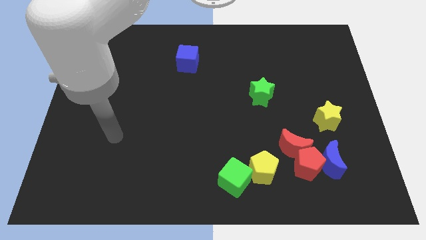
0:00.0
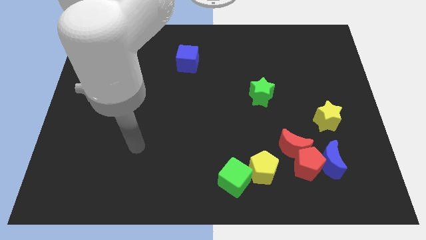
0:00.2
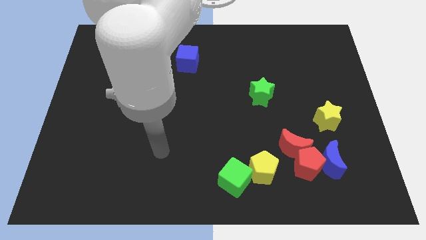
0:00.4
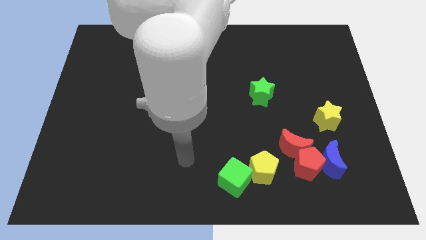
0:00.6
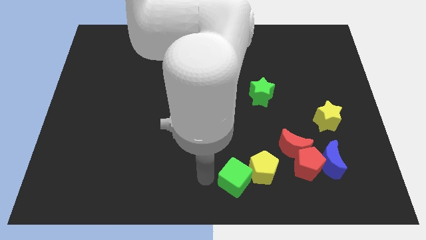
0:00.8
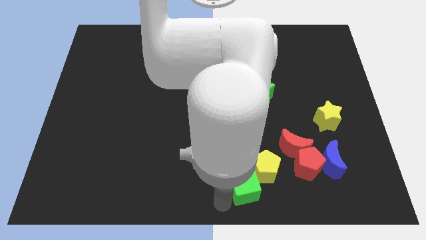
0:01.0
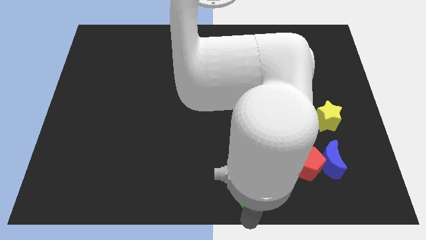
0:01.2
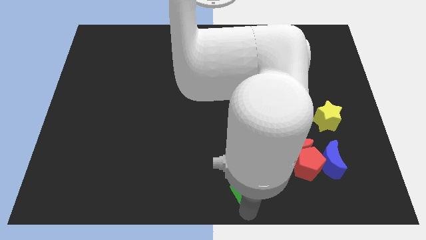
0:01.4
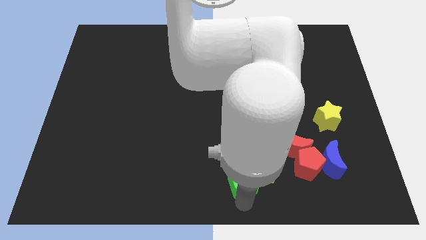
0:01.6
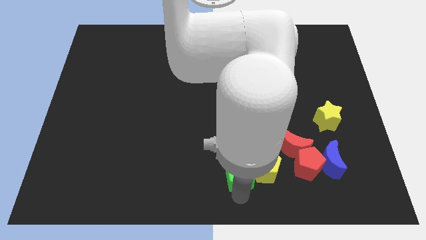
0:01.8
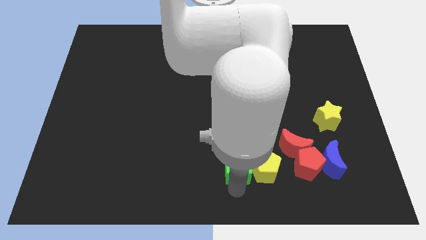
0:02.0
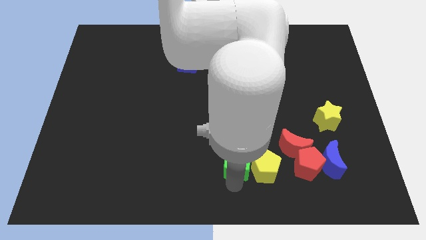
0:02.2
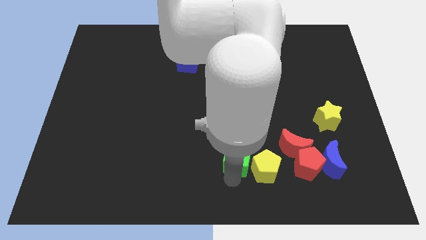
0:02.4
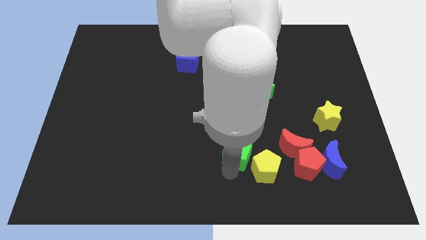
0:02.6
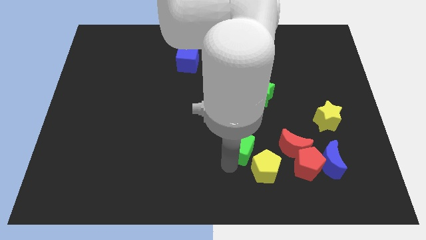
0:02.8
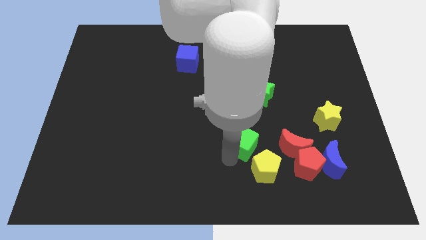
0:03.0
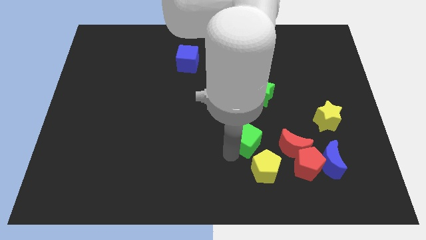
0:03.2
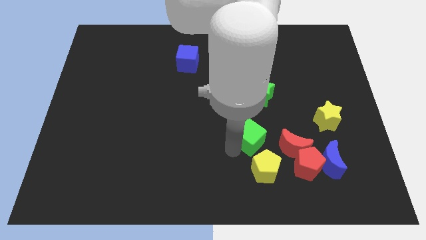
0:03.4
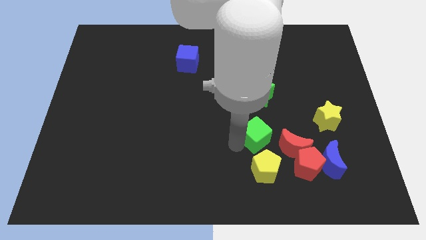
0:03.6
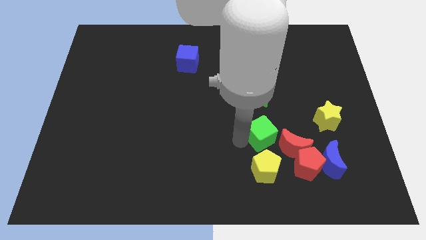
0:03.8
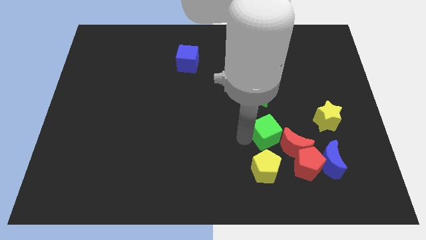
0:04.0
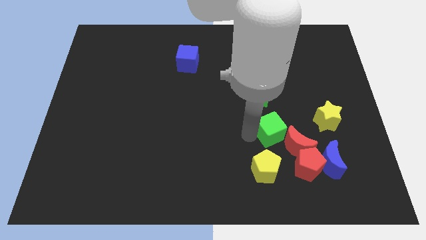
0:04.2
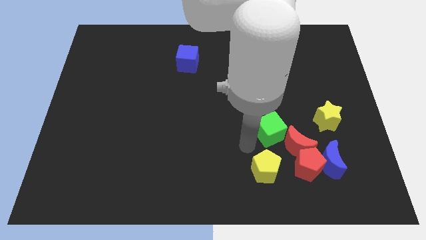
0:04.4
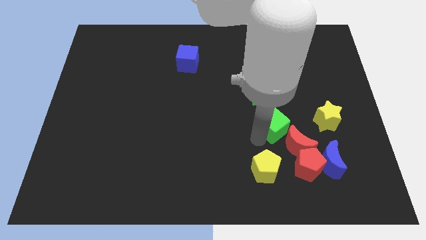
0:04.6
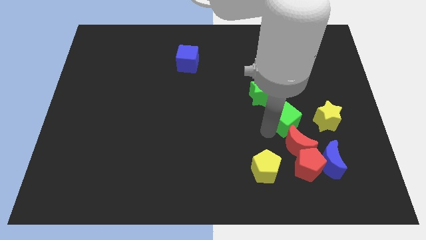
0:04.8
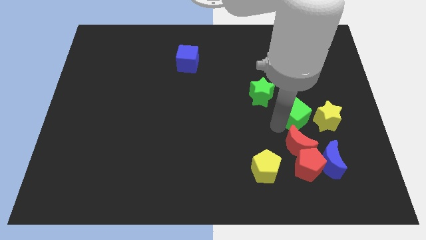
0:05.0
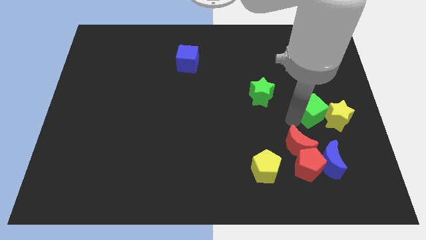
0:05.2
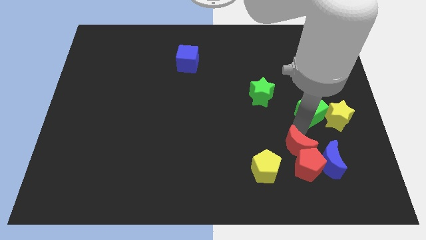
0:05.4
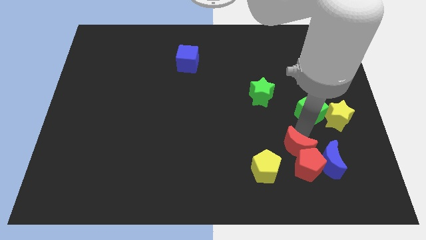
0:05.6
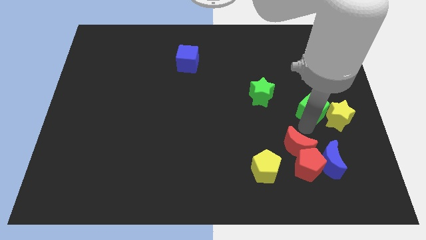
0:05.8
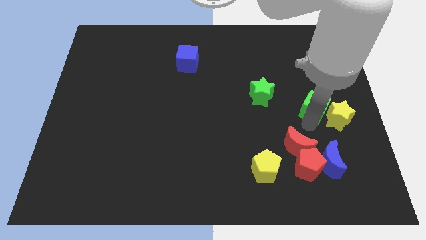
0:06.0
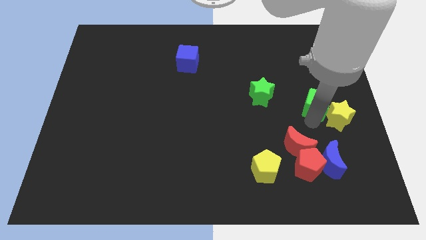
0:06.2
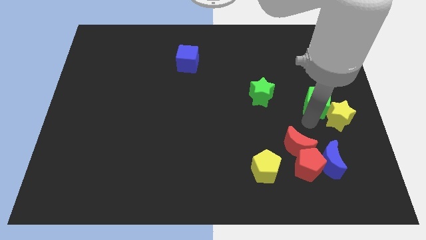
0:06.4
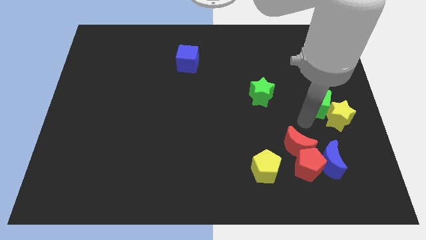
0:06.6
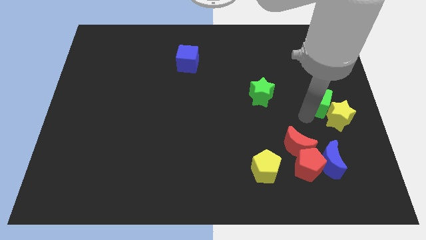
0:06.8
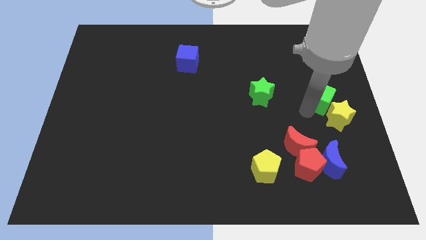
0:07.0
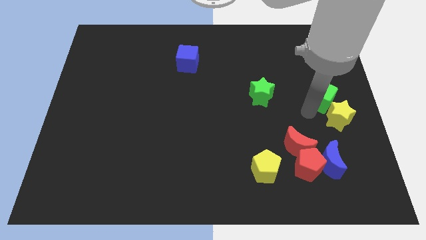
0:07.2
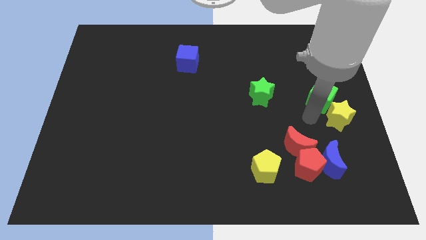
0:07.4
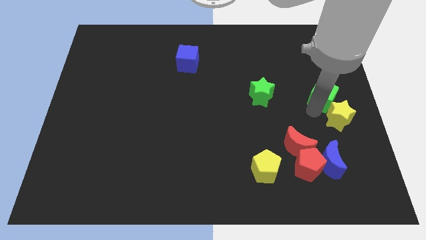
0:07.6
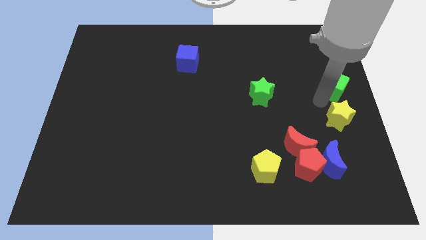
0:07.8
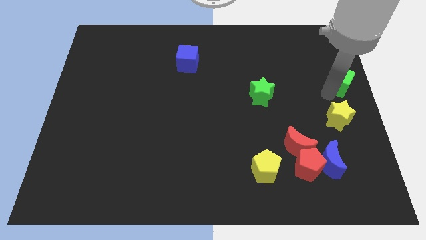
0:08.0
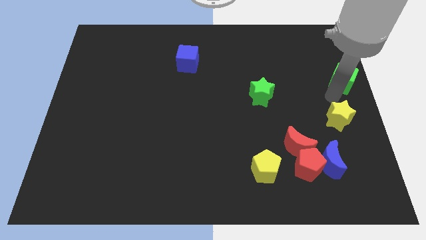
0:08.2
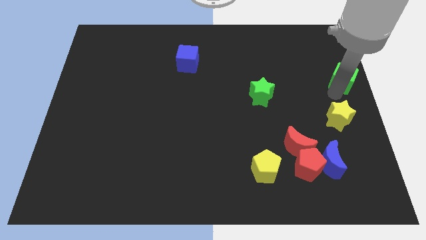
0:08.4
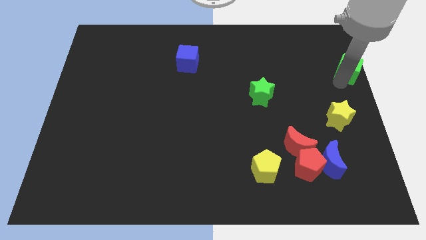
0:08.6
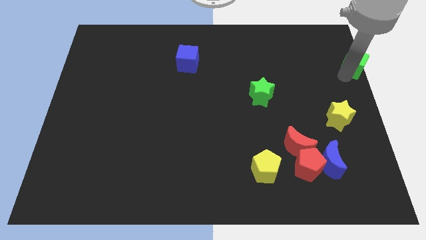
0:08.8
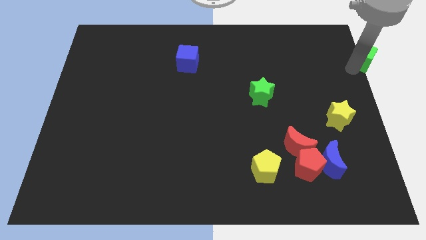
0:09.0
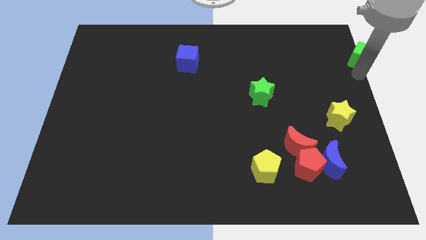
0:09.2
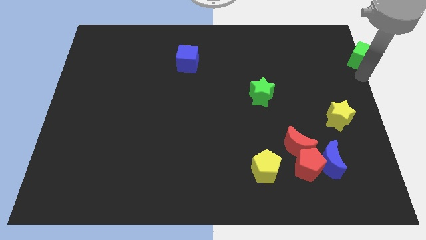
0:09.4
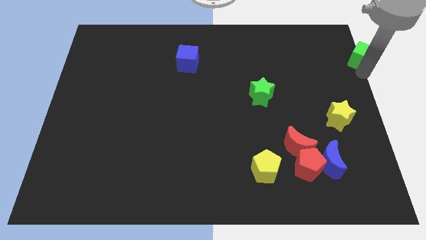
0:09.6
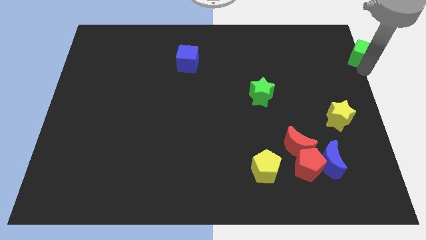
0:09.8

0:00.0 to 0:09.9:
push the green cube to the top right of the board

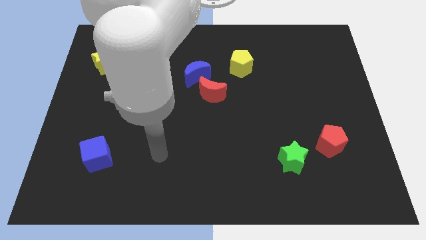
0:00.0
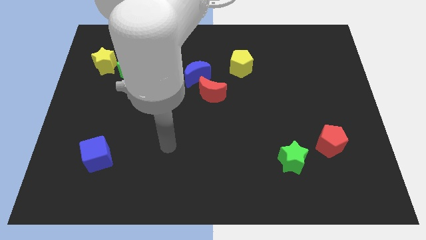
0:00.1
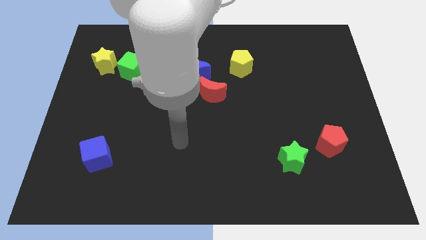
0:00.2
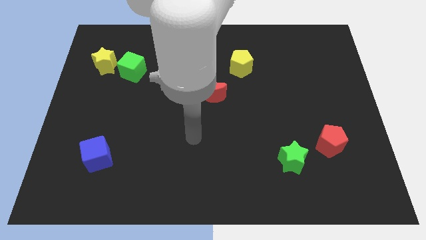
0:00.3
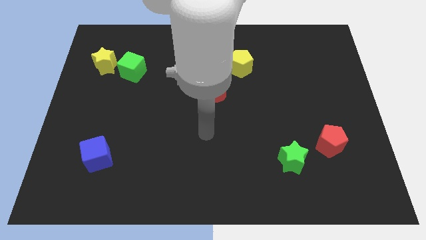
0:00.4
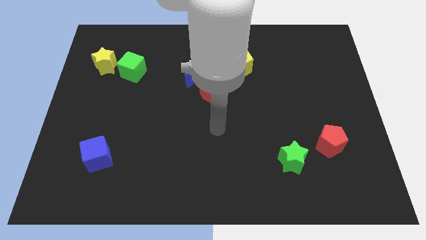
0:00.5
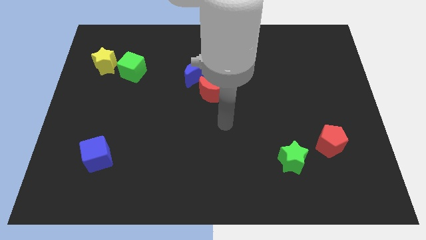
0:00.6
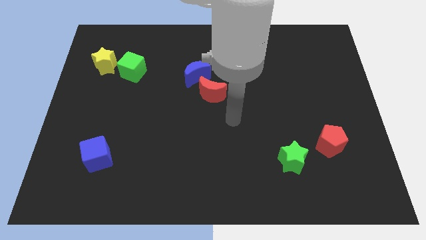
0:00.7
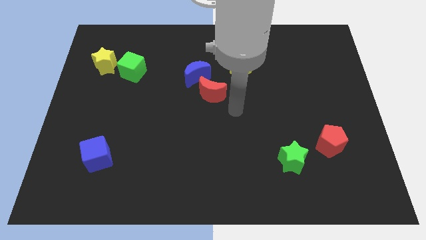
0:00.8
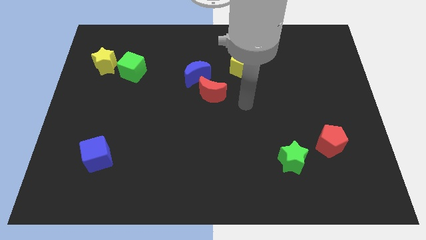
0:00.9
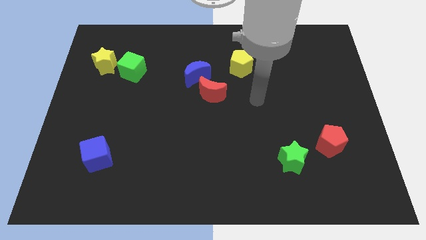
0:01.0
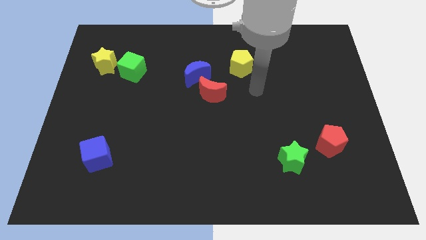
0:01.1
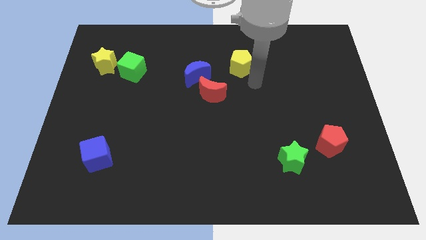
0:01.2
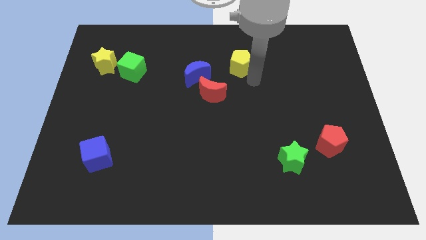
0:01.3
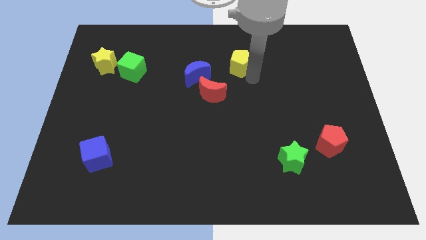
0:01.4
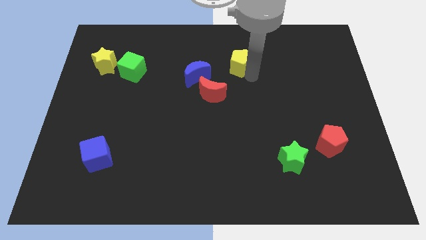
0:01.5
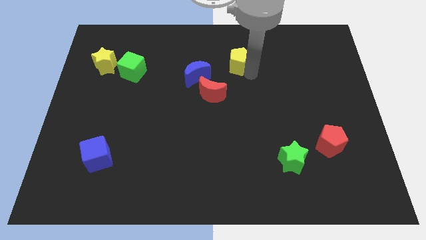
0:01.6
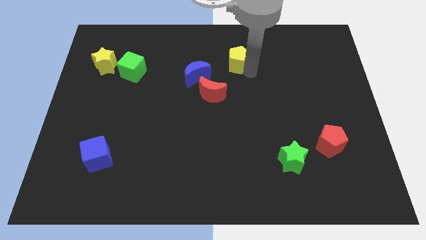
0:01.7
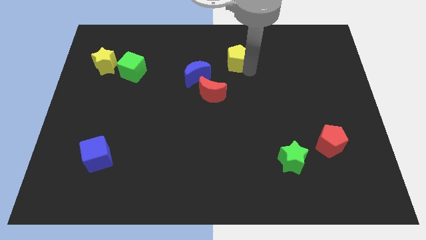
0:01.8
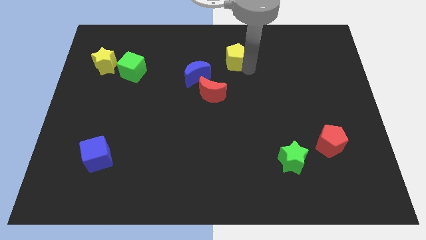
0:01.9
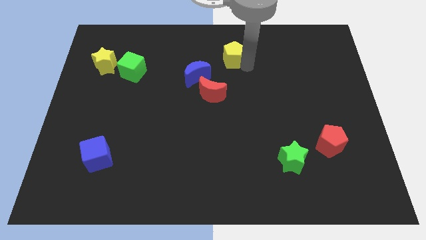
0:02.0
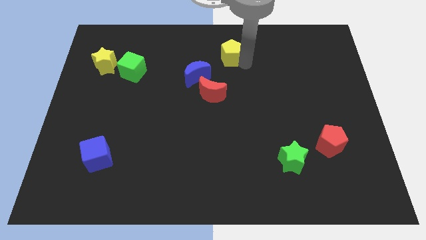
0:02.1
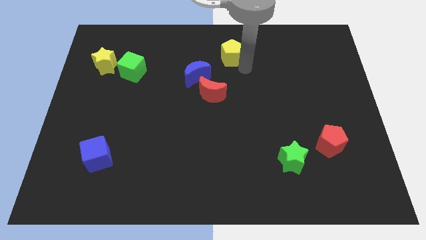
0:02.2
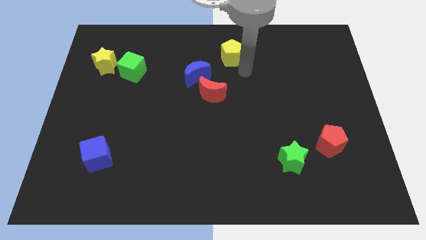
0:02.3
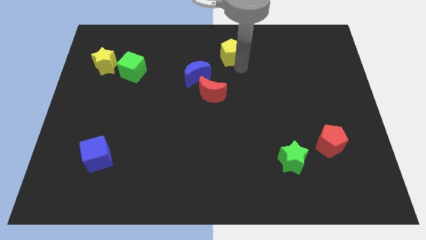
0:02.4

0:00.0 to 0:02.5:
put the yellow pentagon to the towards your base
